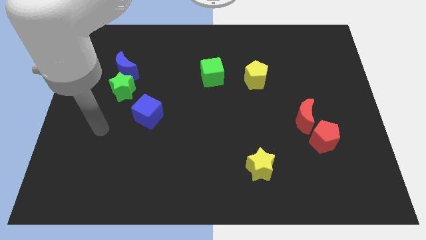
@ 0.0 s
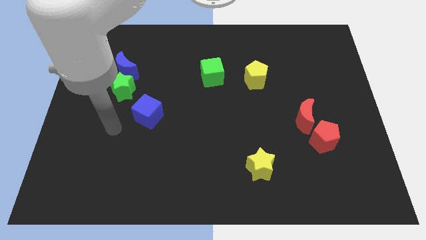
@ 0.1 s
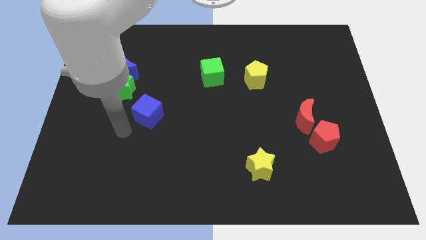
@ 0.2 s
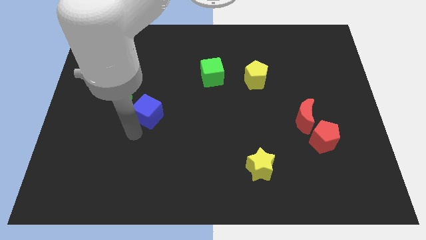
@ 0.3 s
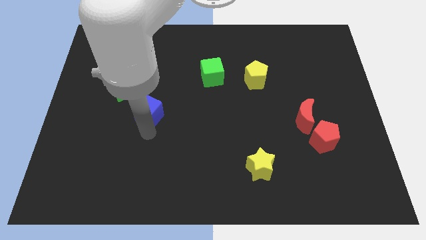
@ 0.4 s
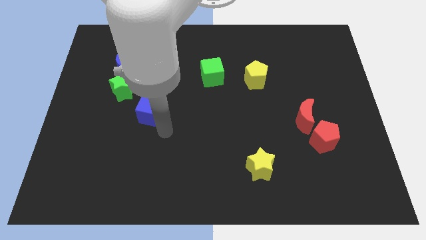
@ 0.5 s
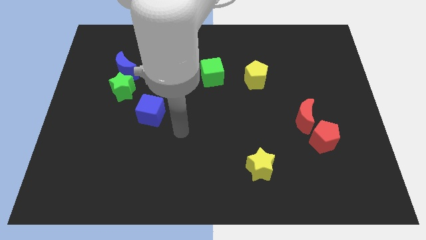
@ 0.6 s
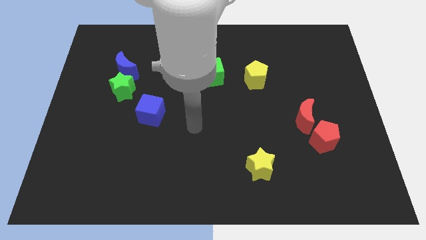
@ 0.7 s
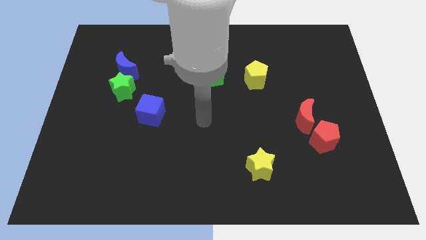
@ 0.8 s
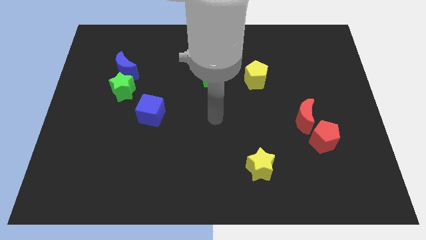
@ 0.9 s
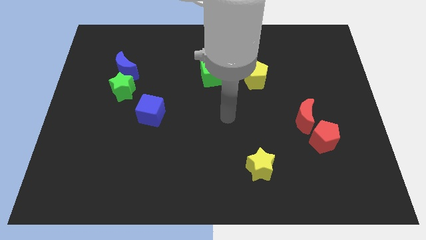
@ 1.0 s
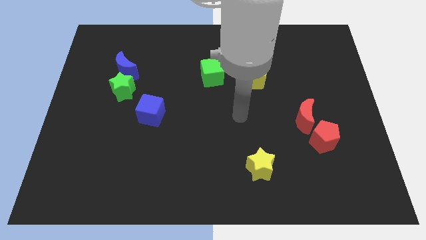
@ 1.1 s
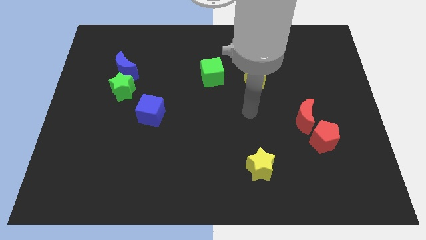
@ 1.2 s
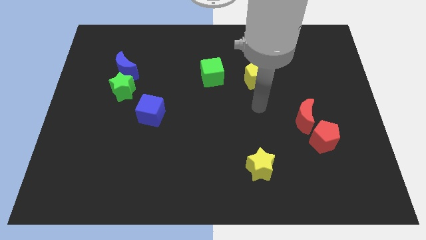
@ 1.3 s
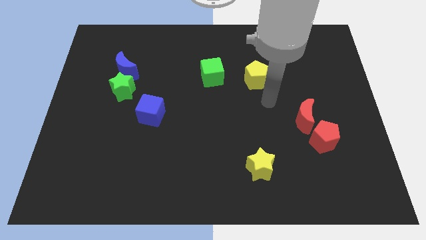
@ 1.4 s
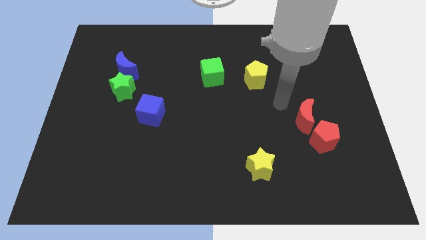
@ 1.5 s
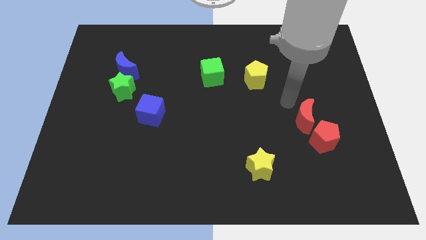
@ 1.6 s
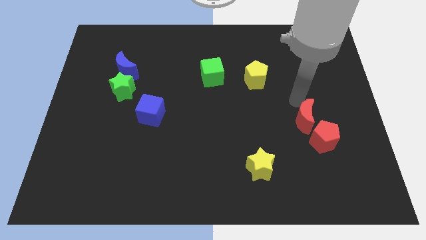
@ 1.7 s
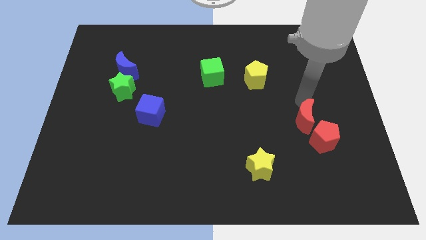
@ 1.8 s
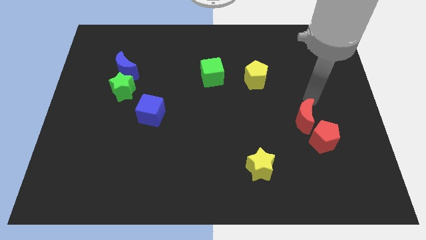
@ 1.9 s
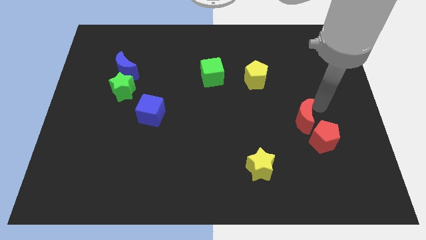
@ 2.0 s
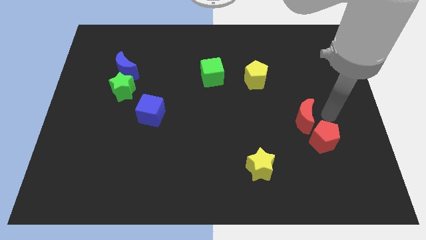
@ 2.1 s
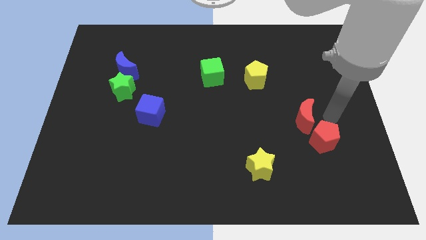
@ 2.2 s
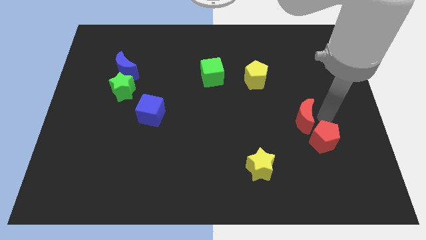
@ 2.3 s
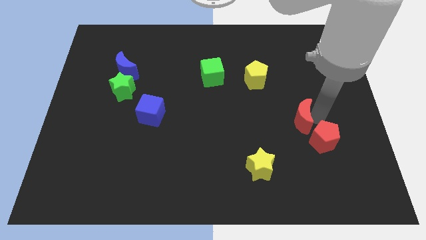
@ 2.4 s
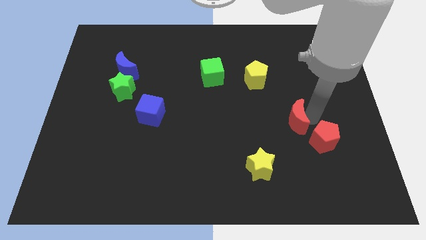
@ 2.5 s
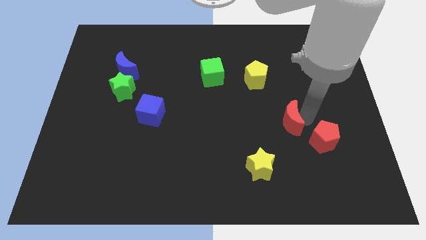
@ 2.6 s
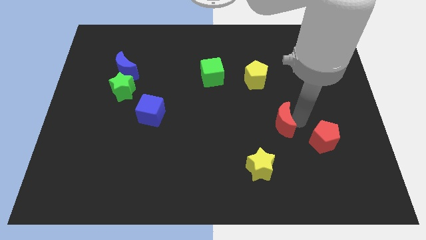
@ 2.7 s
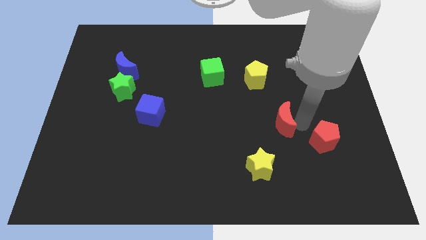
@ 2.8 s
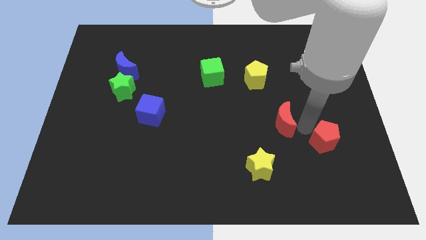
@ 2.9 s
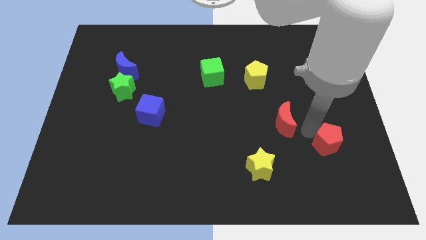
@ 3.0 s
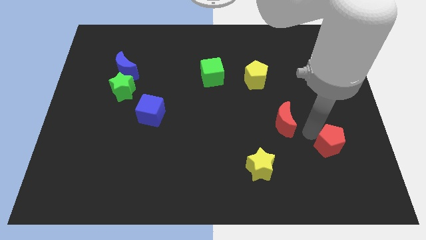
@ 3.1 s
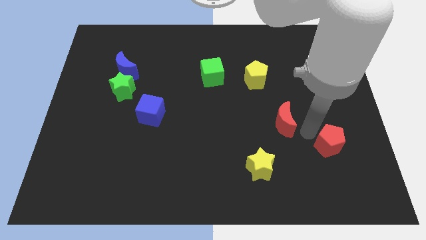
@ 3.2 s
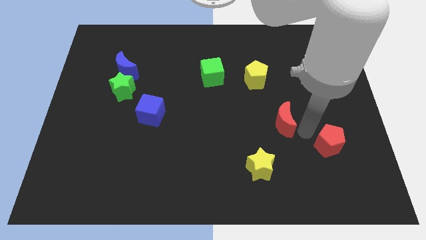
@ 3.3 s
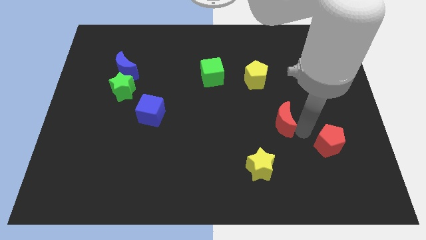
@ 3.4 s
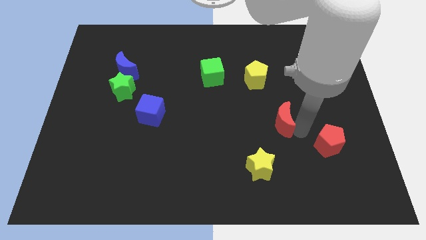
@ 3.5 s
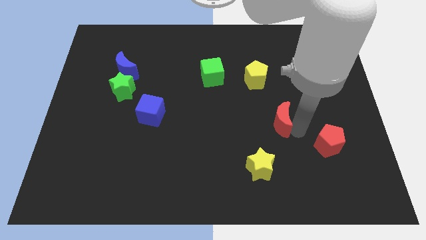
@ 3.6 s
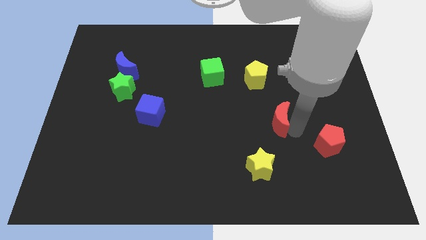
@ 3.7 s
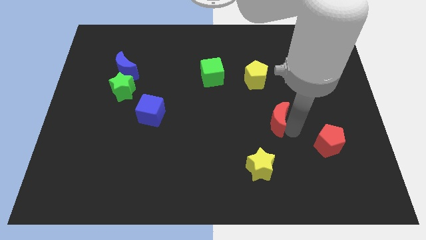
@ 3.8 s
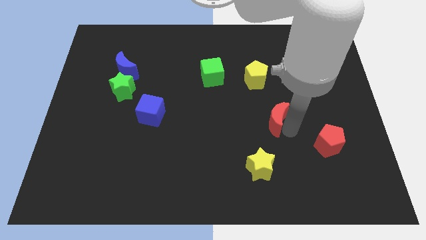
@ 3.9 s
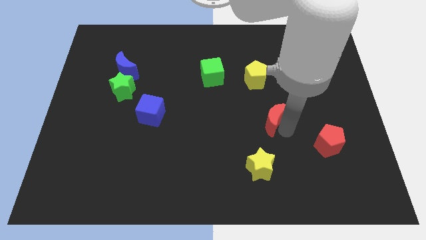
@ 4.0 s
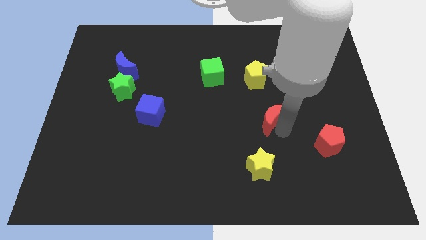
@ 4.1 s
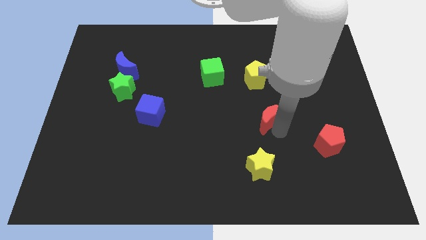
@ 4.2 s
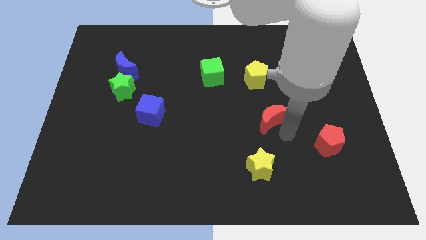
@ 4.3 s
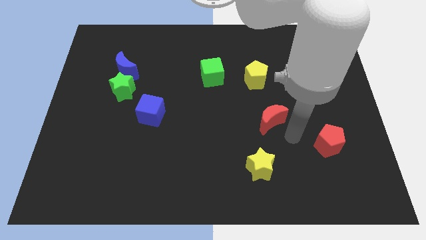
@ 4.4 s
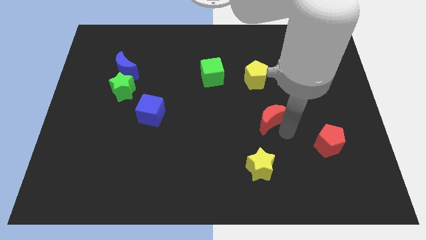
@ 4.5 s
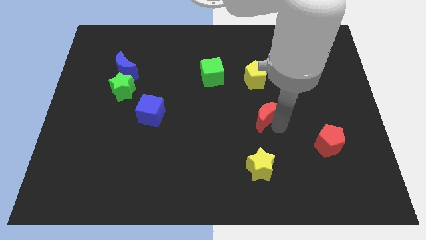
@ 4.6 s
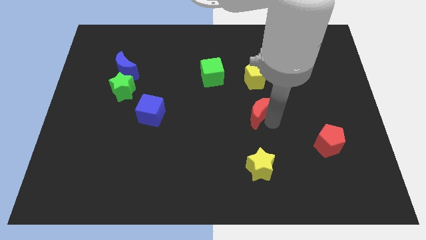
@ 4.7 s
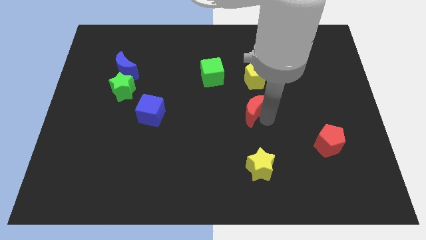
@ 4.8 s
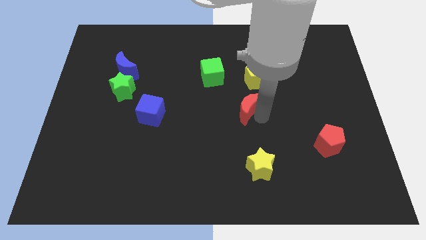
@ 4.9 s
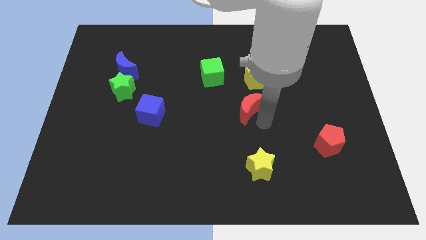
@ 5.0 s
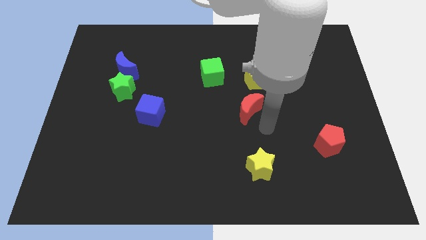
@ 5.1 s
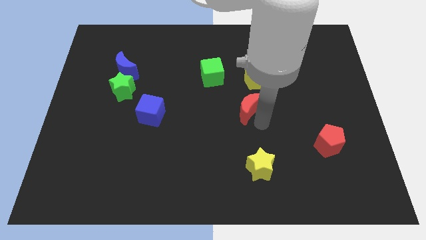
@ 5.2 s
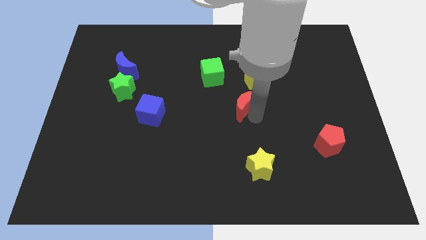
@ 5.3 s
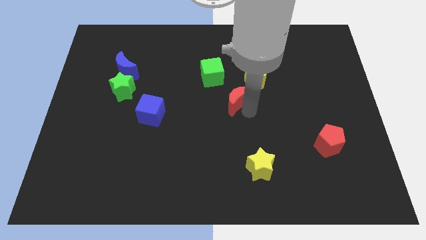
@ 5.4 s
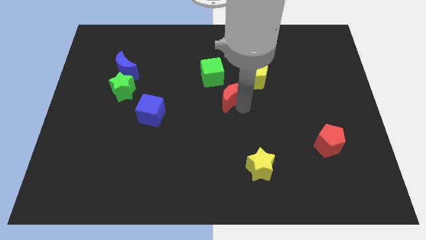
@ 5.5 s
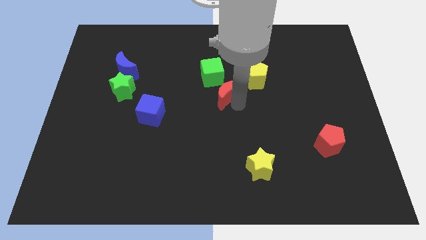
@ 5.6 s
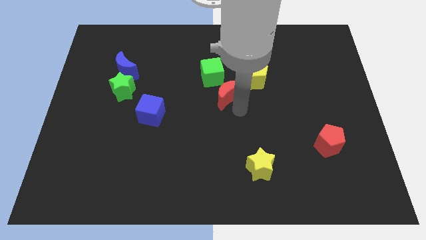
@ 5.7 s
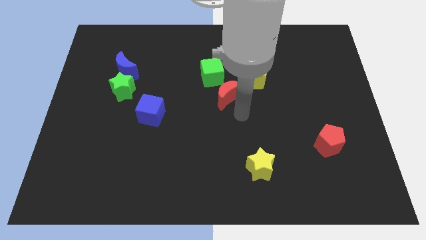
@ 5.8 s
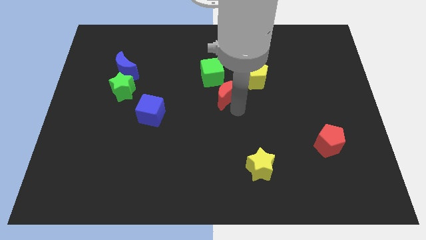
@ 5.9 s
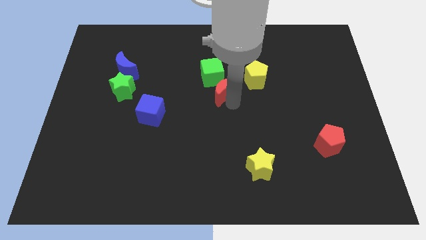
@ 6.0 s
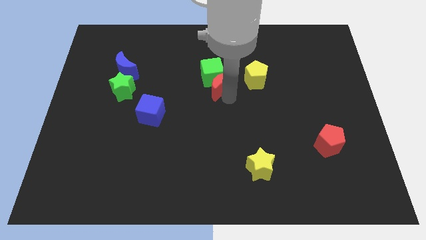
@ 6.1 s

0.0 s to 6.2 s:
push the red moon close to the green cube

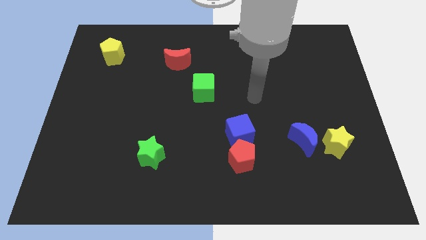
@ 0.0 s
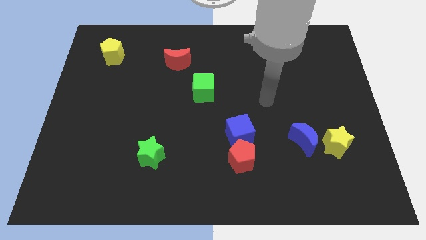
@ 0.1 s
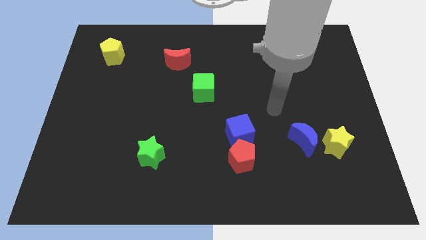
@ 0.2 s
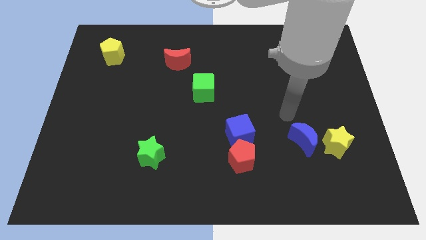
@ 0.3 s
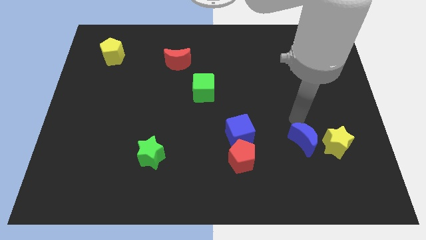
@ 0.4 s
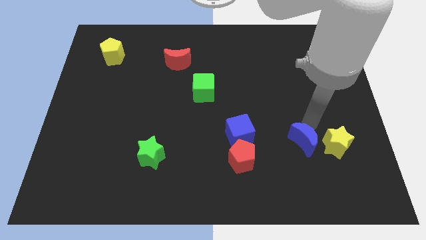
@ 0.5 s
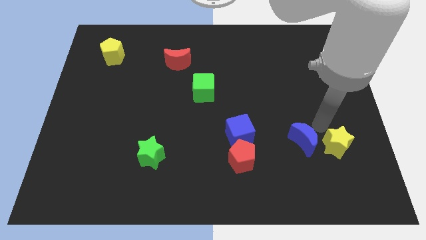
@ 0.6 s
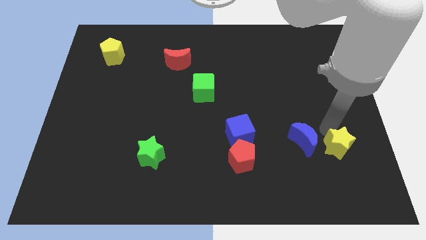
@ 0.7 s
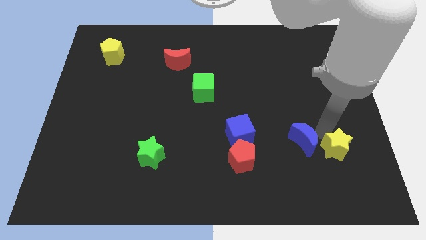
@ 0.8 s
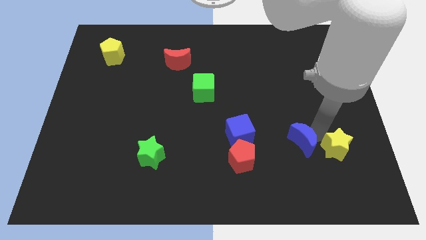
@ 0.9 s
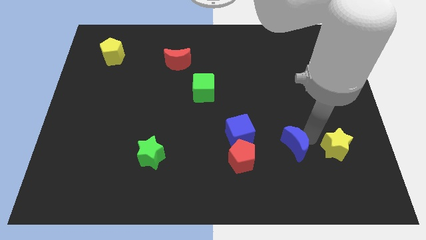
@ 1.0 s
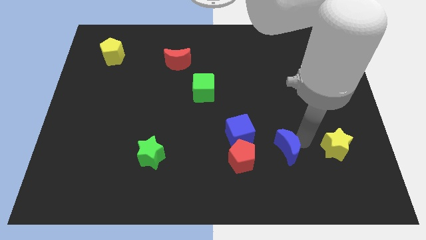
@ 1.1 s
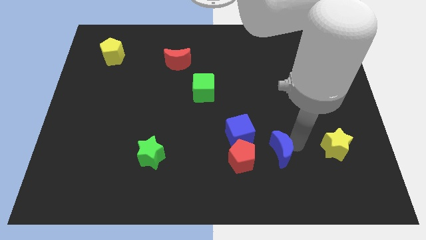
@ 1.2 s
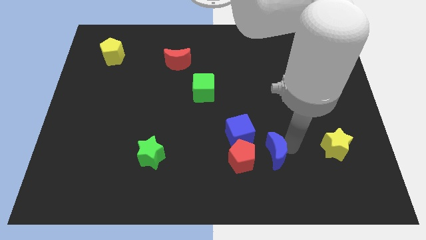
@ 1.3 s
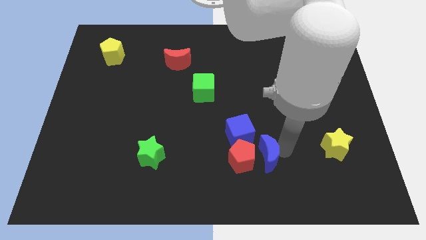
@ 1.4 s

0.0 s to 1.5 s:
move the blue moon towards the red pentagon
